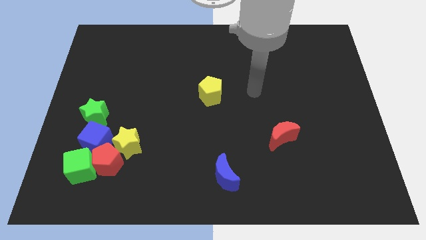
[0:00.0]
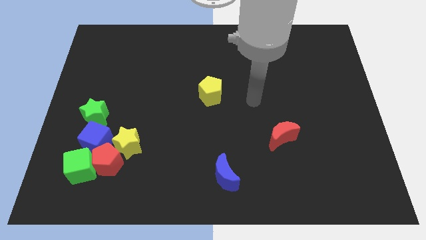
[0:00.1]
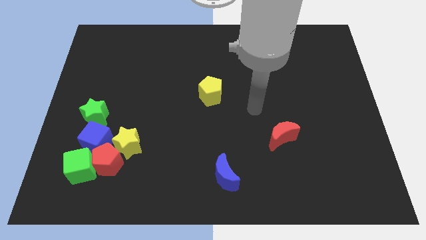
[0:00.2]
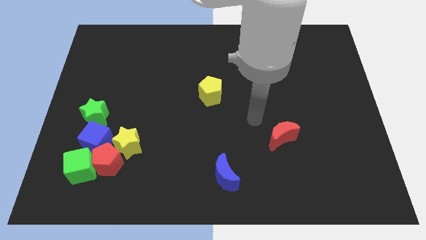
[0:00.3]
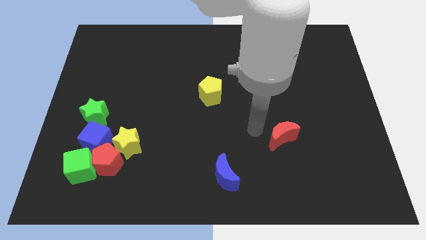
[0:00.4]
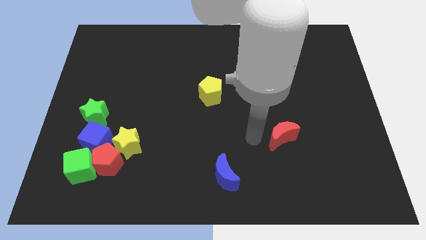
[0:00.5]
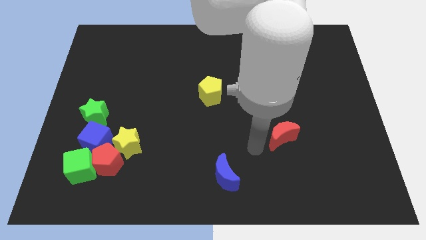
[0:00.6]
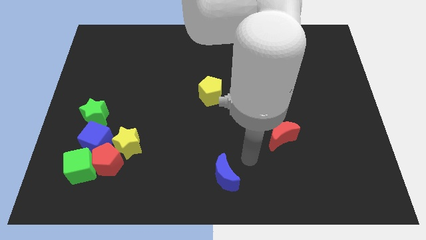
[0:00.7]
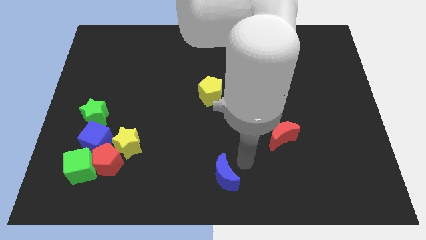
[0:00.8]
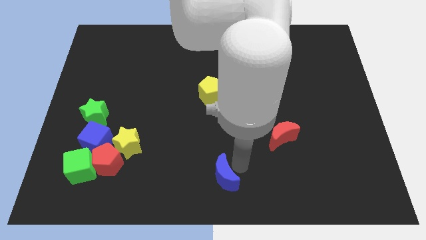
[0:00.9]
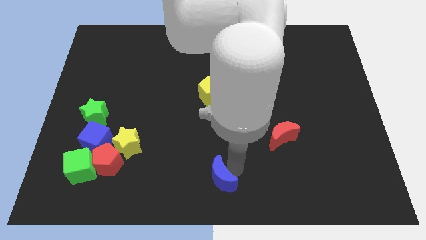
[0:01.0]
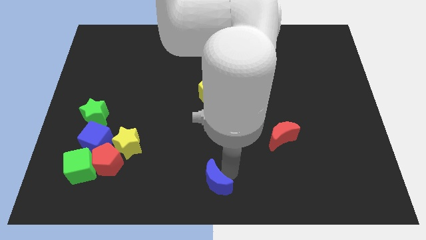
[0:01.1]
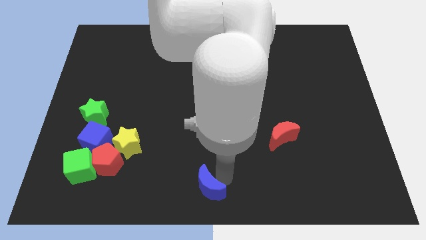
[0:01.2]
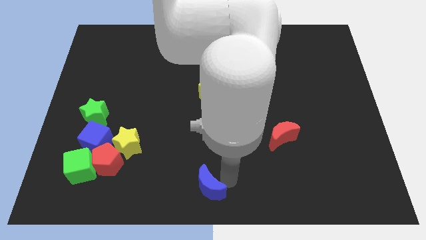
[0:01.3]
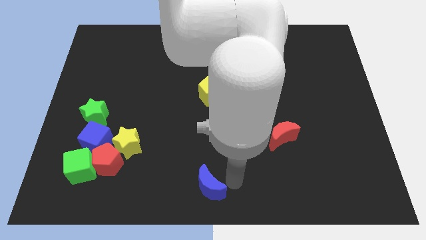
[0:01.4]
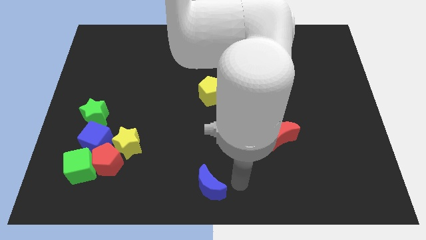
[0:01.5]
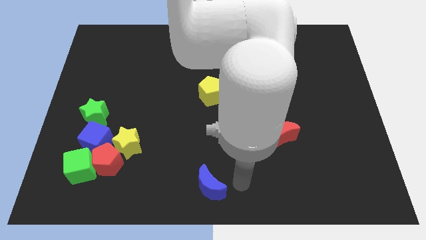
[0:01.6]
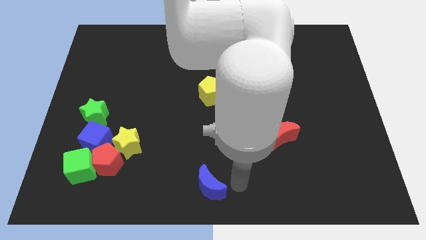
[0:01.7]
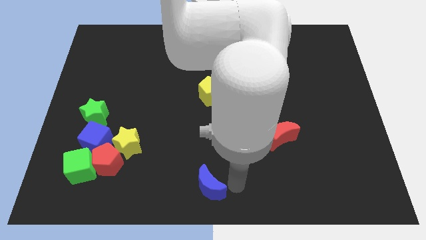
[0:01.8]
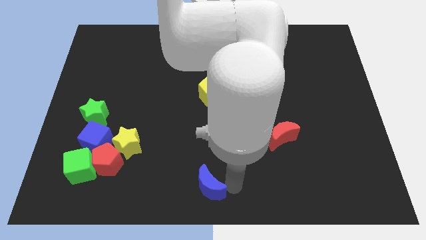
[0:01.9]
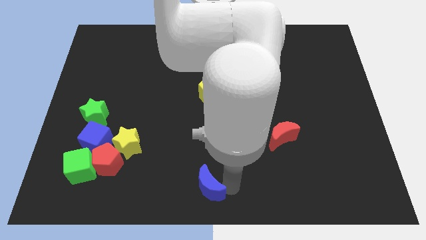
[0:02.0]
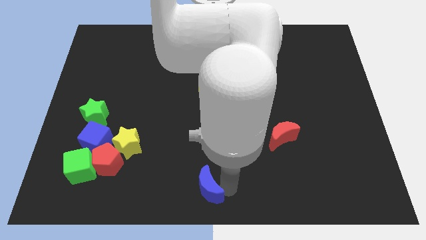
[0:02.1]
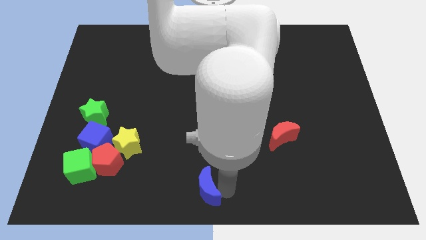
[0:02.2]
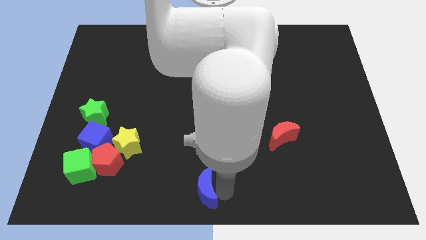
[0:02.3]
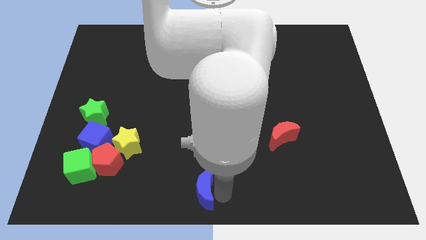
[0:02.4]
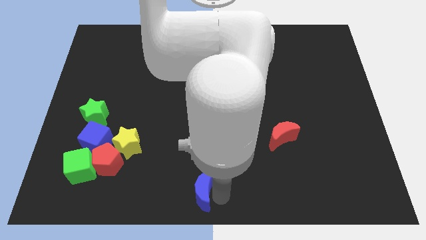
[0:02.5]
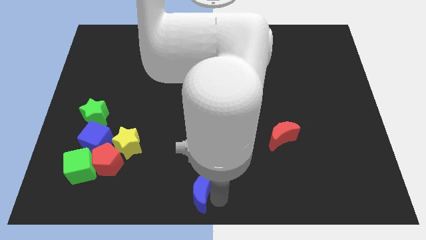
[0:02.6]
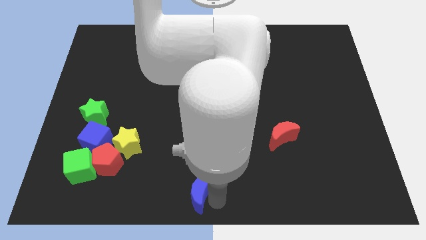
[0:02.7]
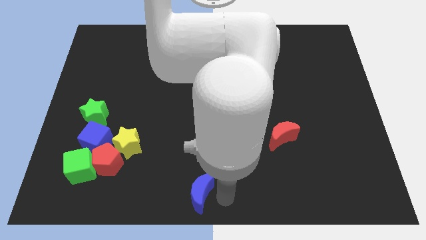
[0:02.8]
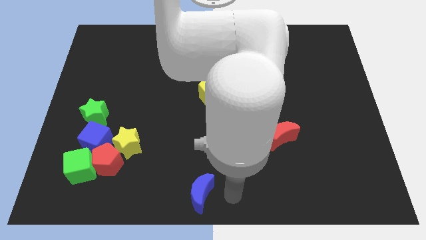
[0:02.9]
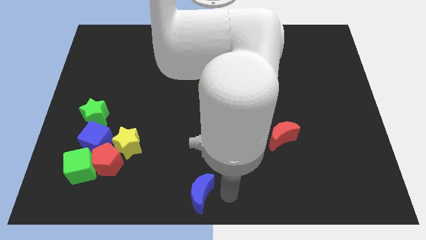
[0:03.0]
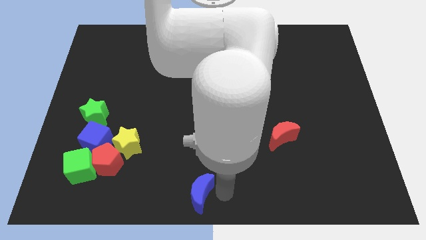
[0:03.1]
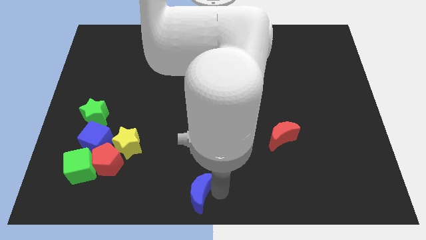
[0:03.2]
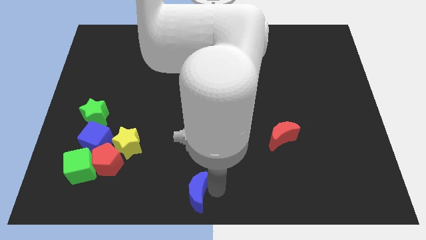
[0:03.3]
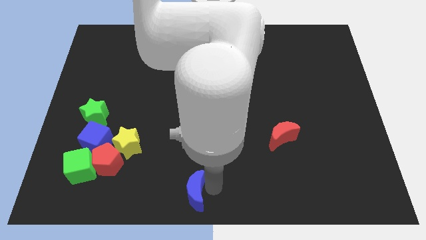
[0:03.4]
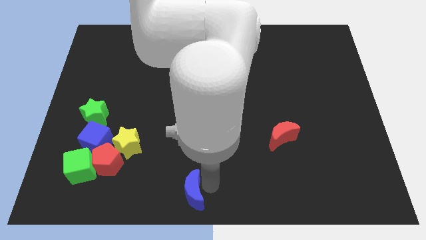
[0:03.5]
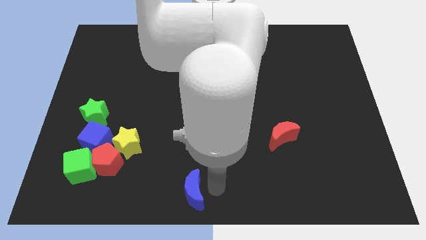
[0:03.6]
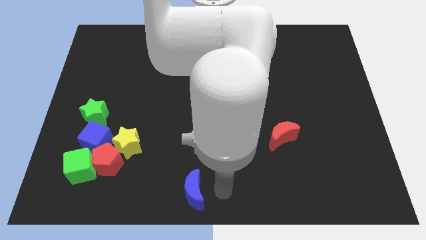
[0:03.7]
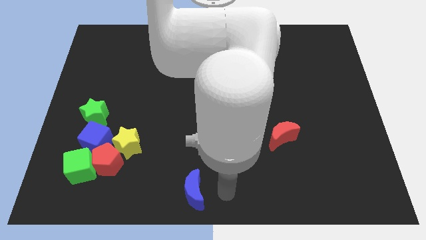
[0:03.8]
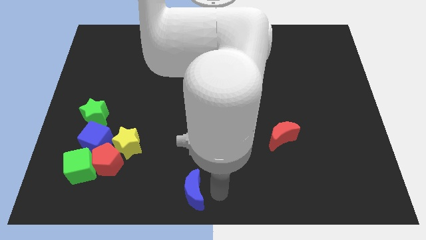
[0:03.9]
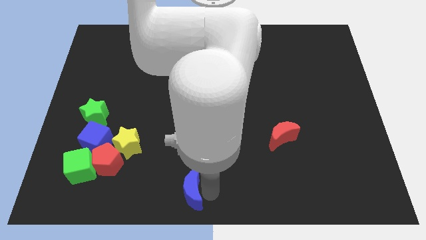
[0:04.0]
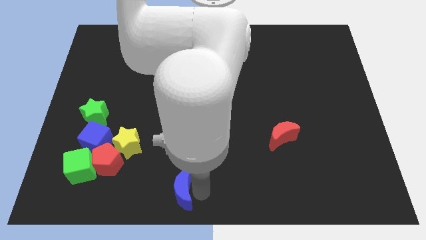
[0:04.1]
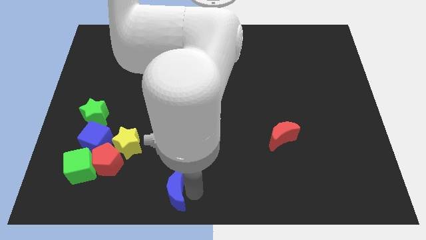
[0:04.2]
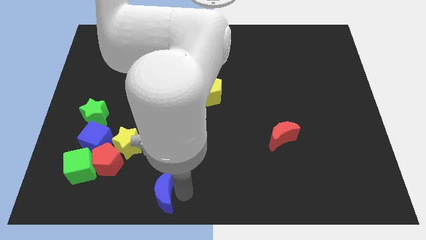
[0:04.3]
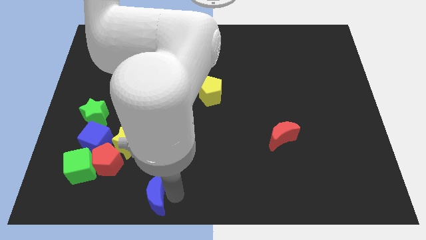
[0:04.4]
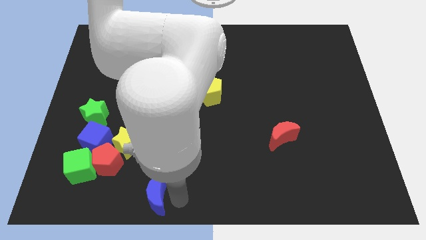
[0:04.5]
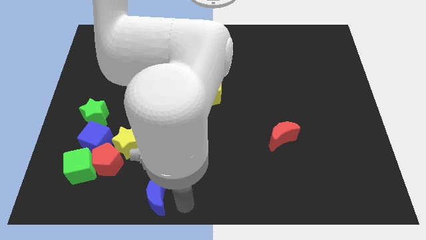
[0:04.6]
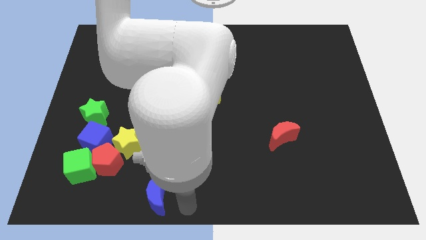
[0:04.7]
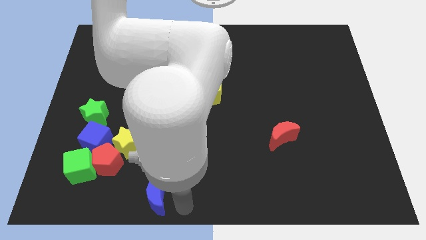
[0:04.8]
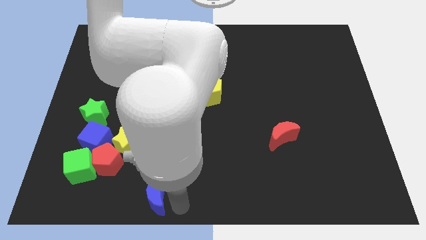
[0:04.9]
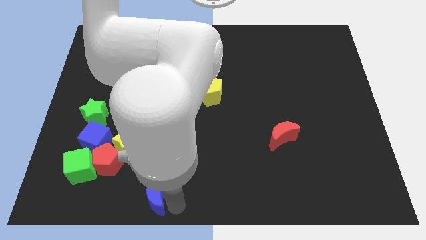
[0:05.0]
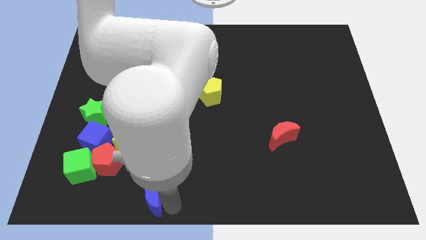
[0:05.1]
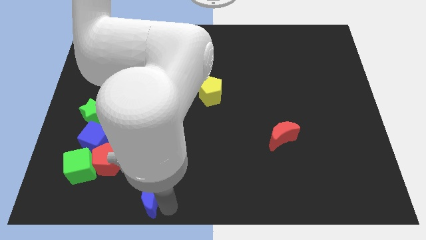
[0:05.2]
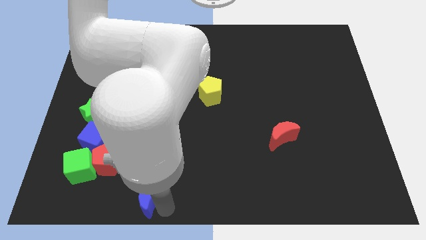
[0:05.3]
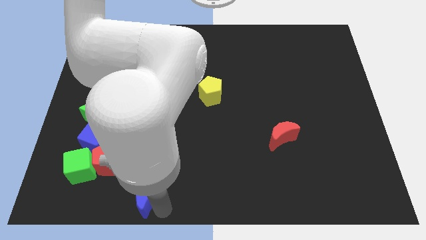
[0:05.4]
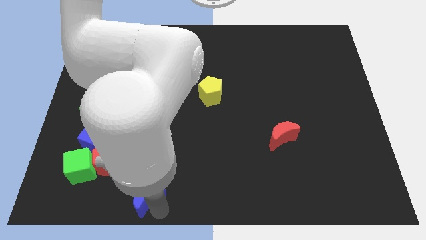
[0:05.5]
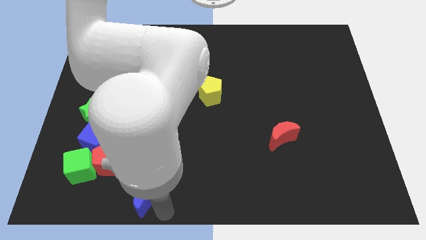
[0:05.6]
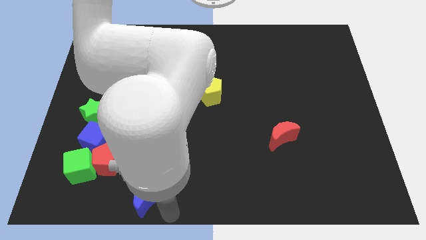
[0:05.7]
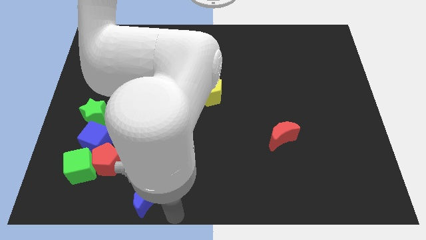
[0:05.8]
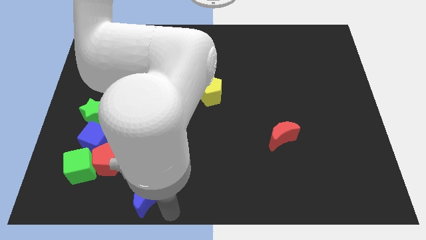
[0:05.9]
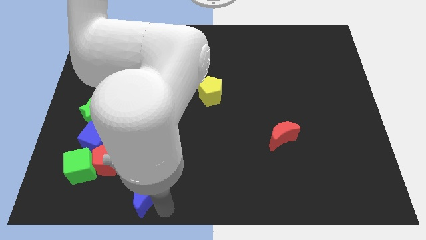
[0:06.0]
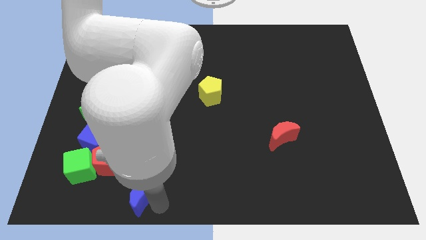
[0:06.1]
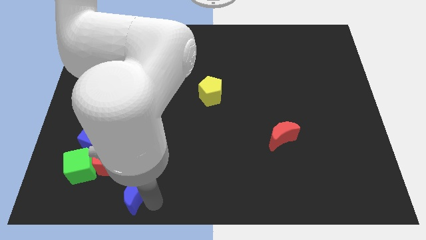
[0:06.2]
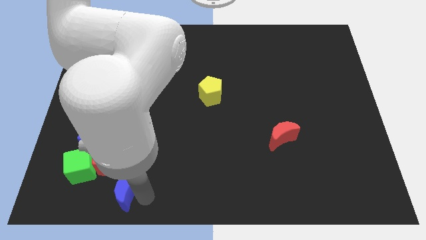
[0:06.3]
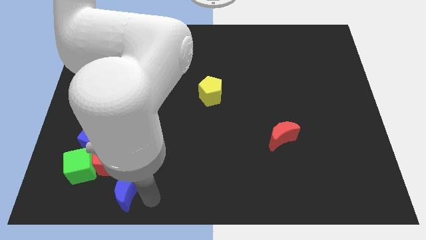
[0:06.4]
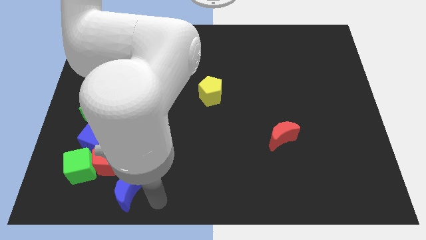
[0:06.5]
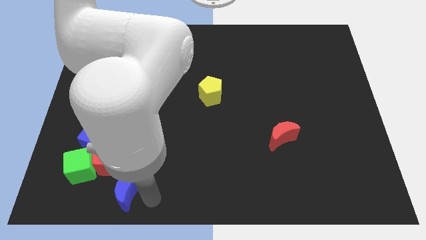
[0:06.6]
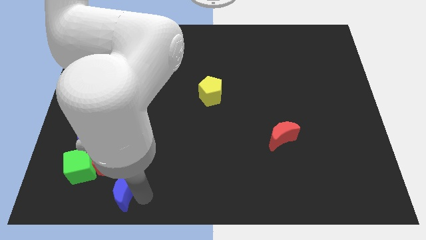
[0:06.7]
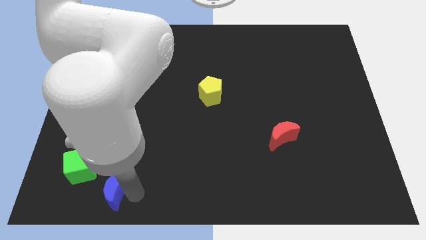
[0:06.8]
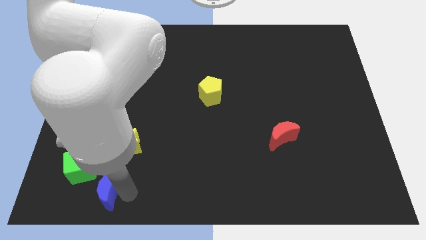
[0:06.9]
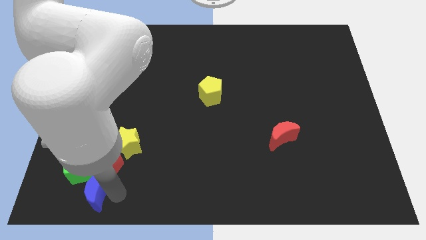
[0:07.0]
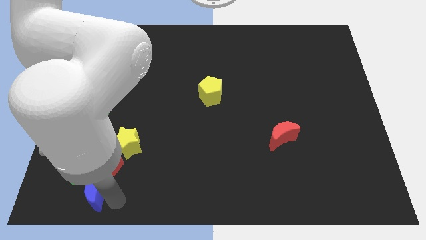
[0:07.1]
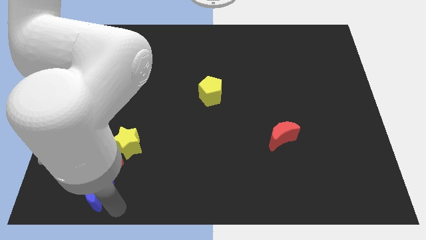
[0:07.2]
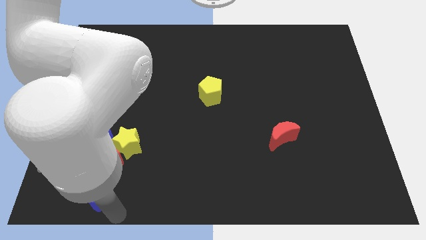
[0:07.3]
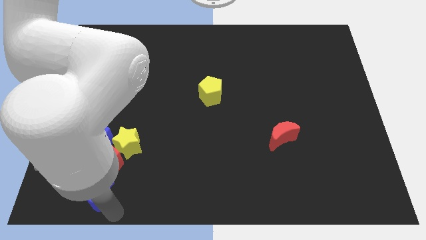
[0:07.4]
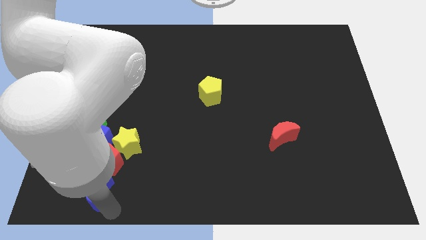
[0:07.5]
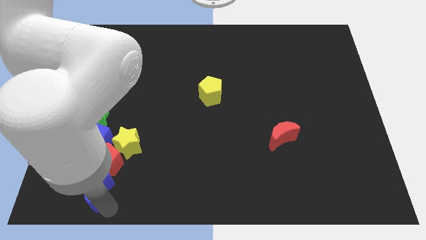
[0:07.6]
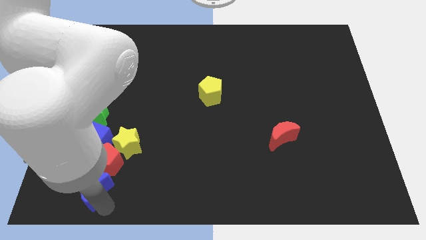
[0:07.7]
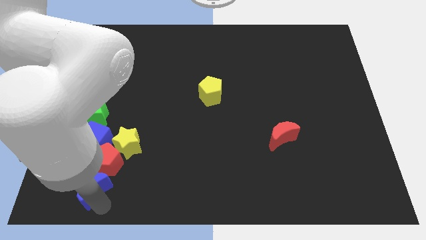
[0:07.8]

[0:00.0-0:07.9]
put the blue moon next to the green cube
